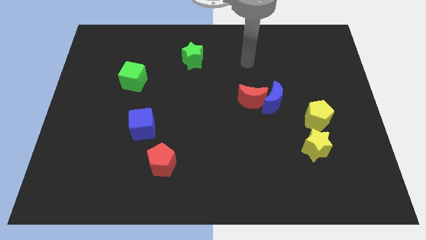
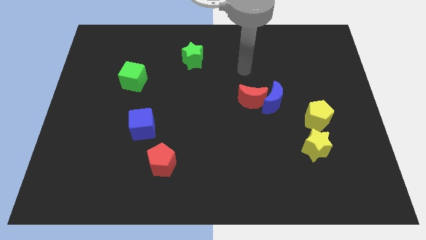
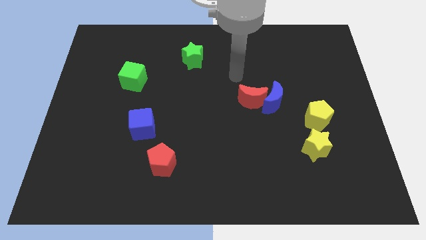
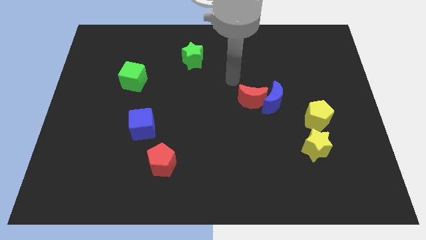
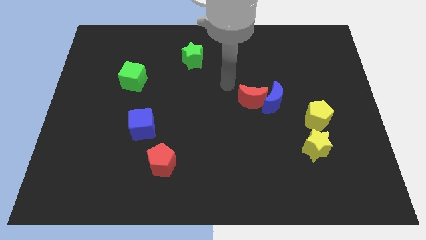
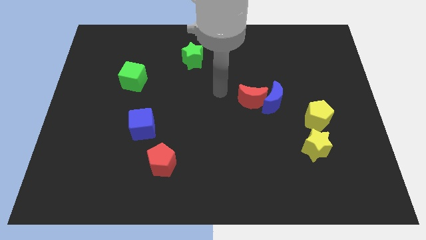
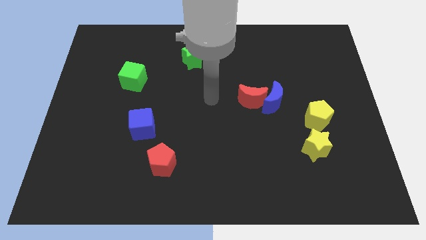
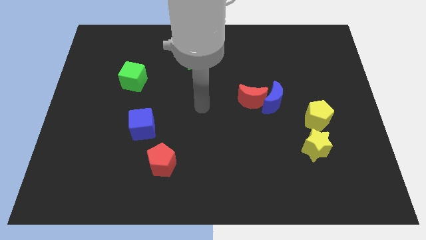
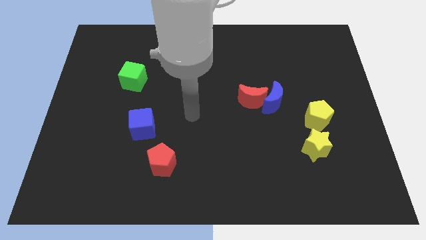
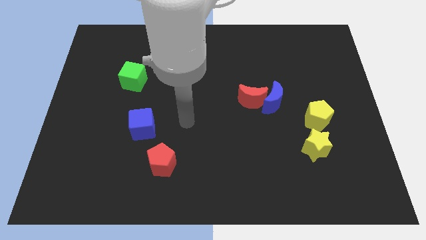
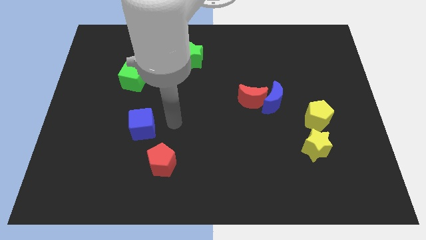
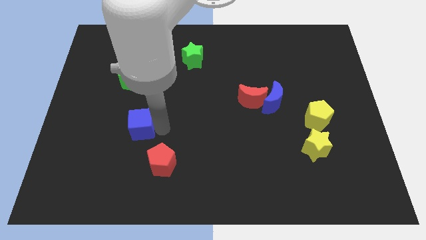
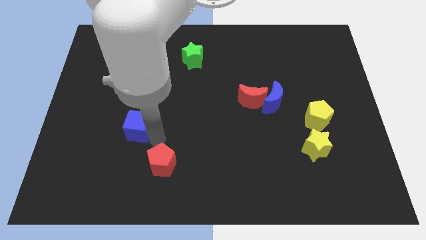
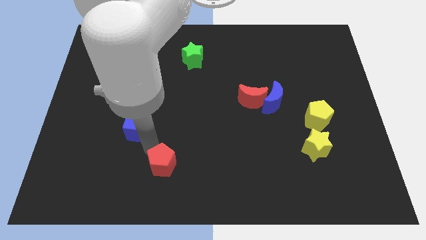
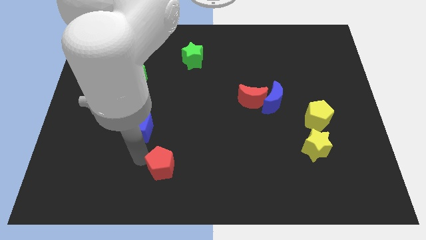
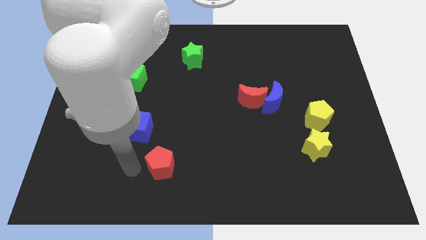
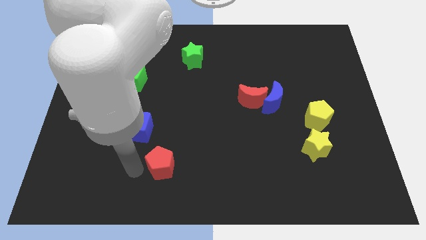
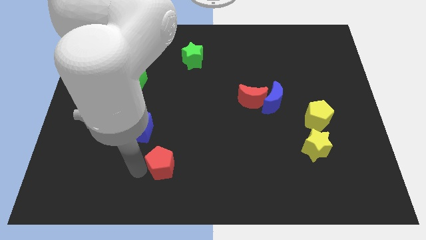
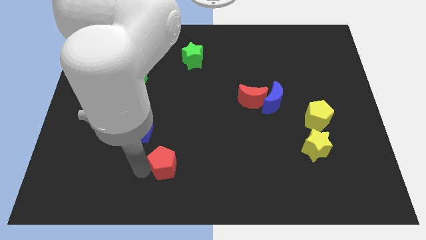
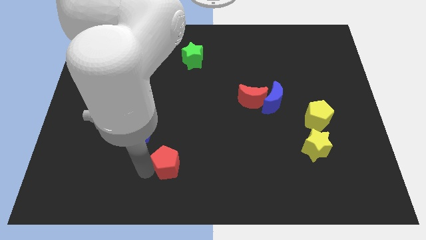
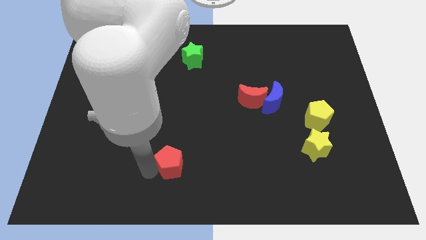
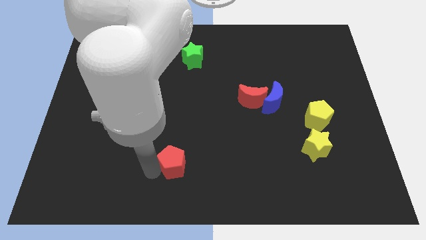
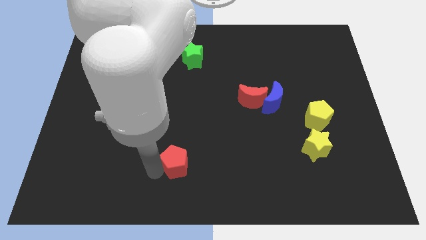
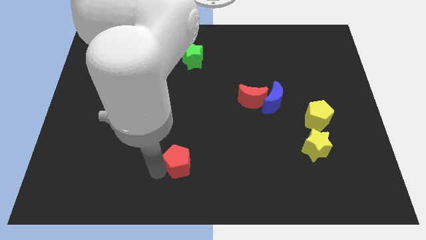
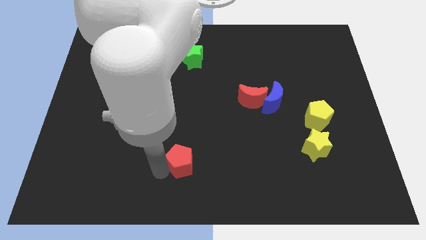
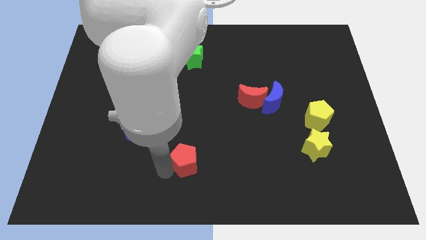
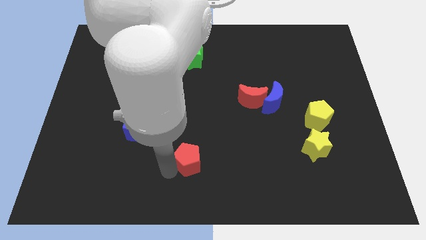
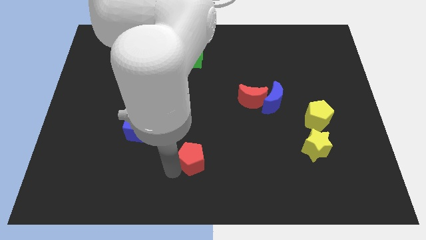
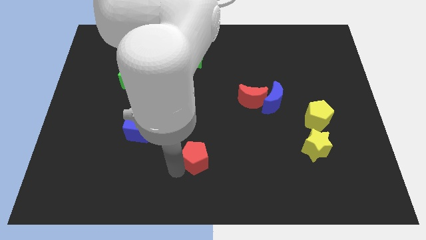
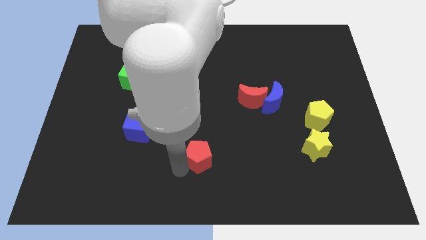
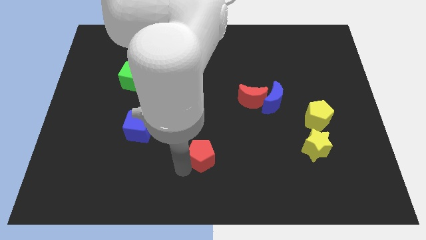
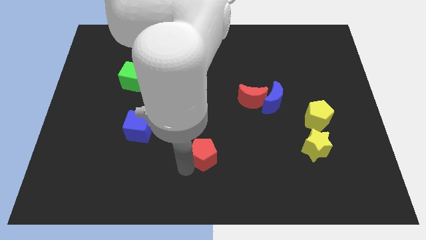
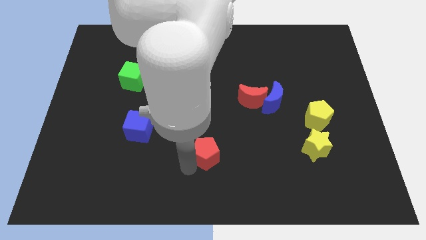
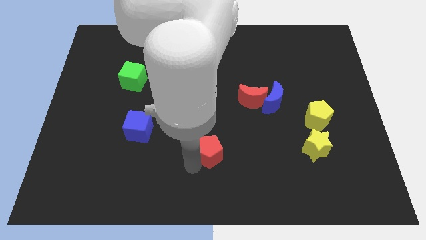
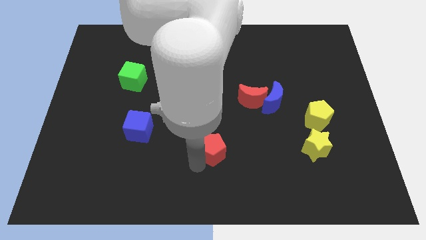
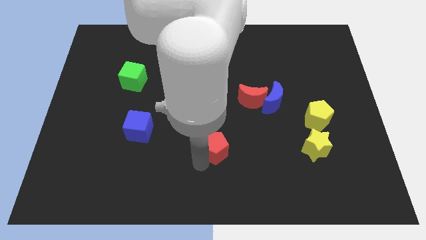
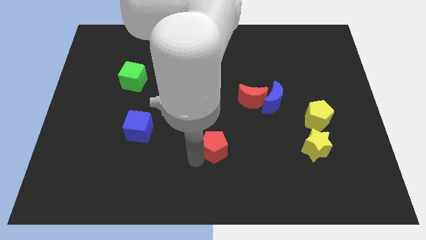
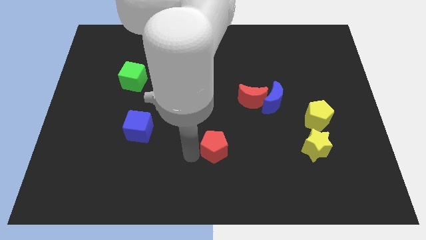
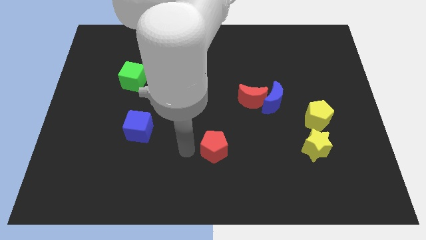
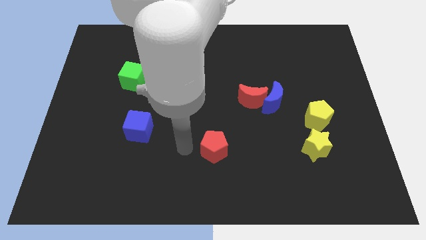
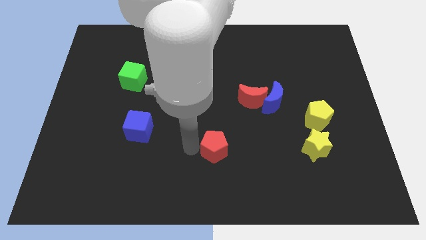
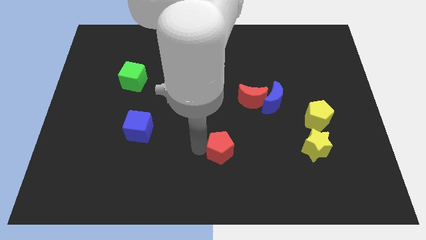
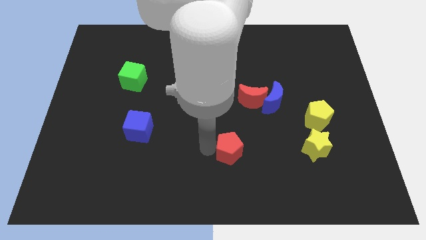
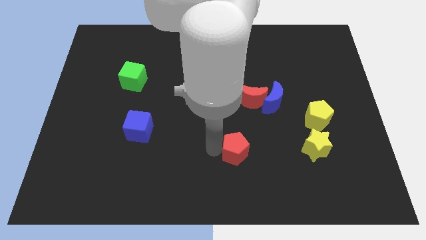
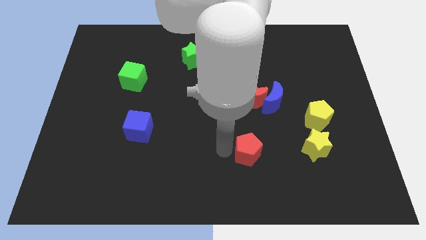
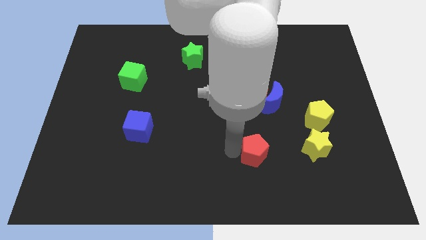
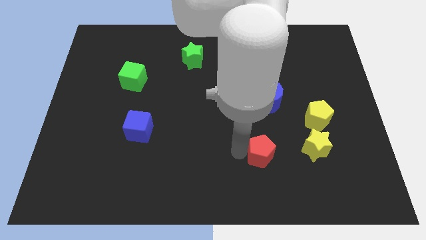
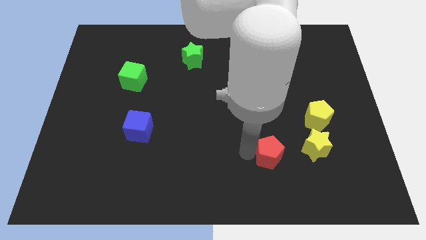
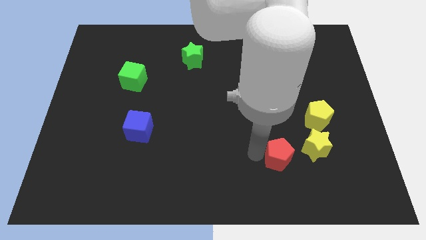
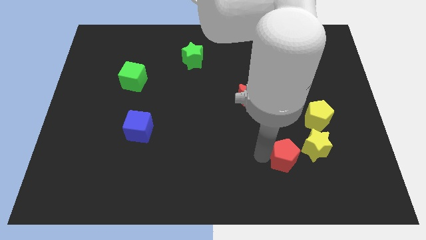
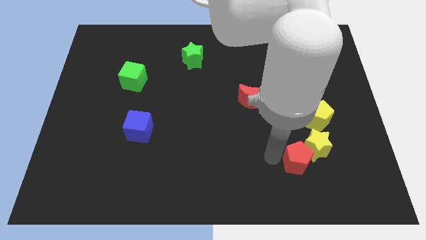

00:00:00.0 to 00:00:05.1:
move the red pentagon next to the yellow star

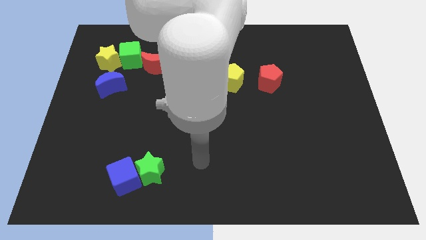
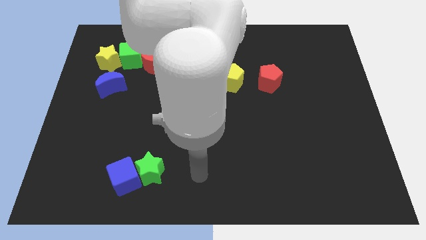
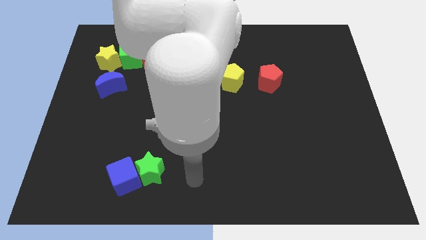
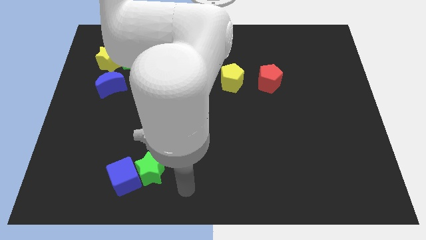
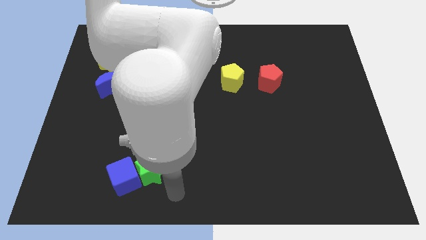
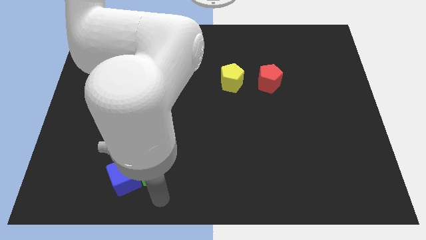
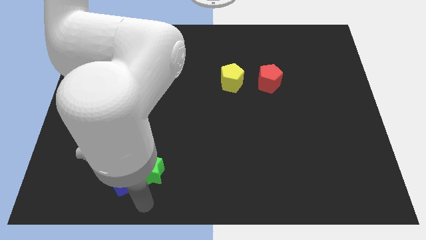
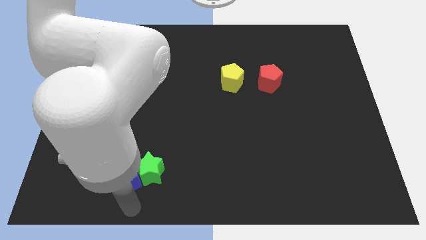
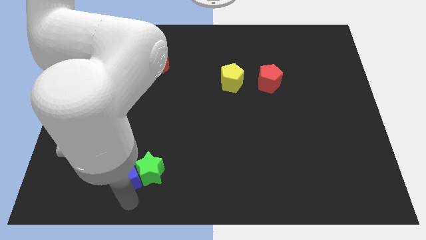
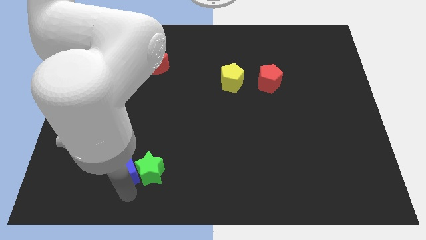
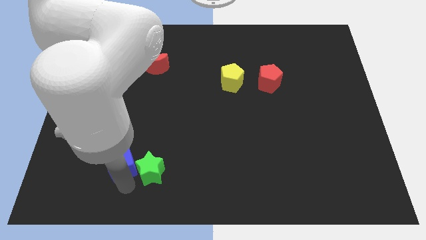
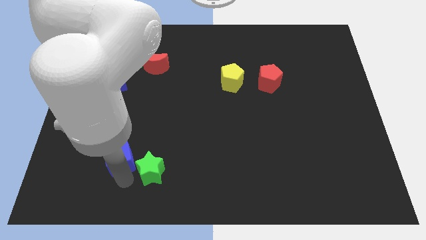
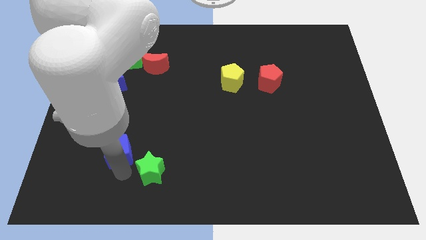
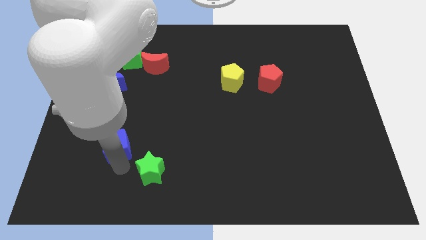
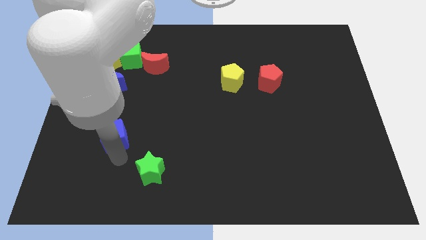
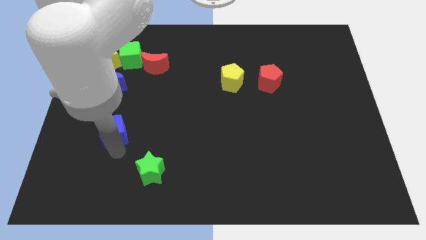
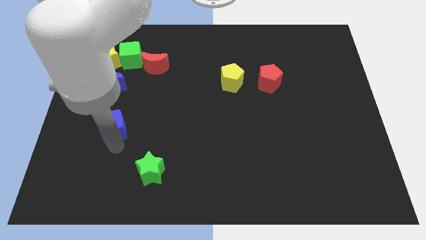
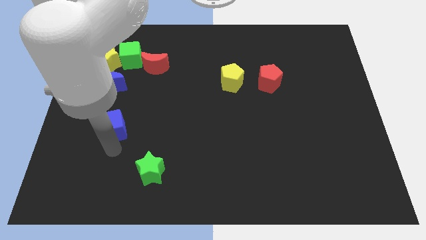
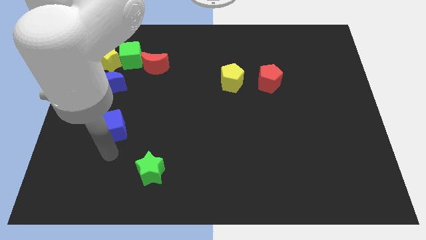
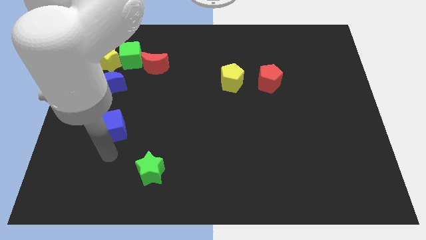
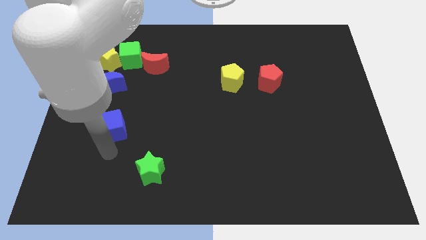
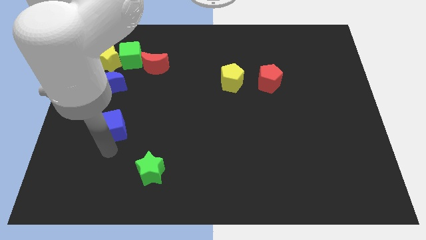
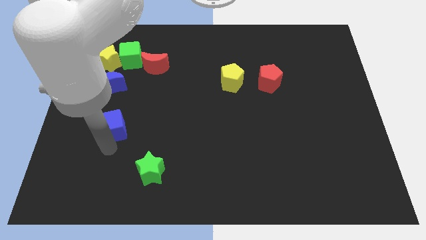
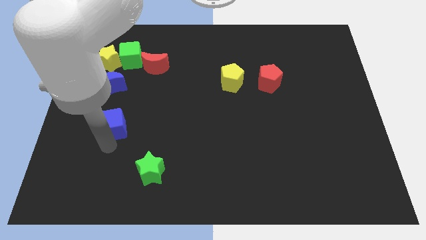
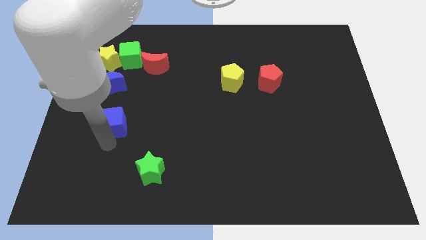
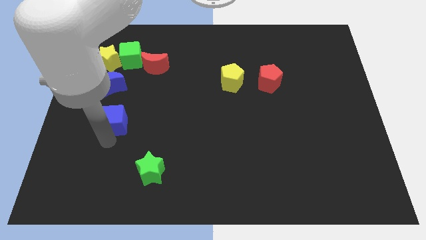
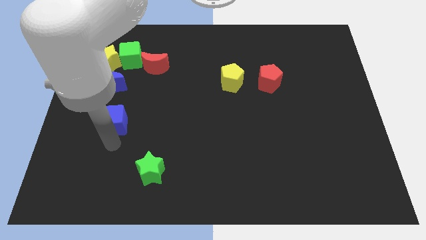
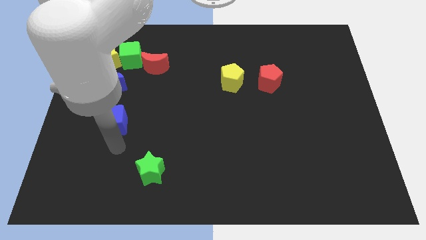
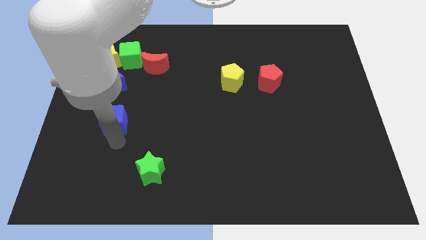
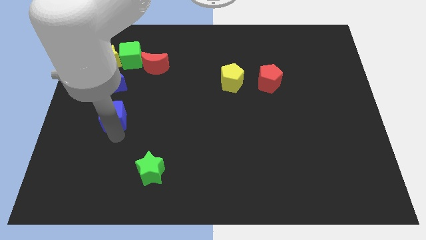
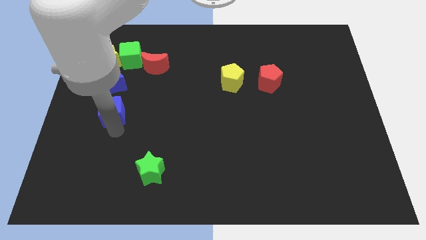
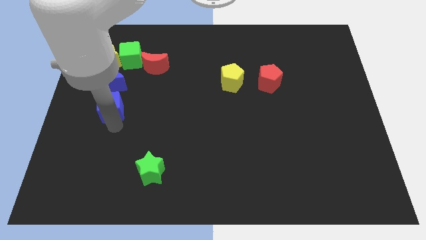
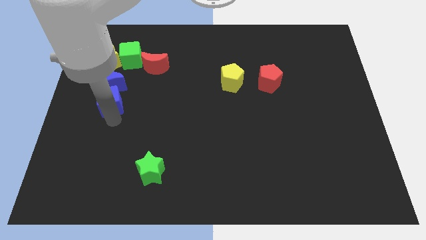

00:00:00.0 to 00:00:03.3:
put the blue cube next to the blue moon
